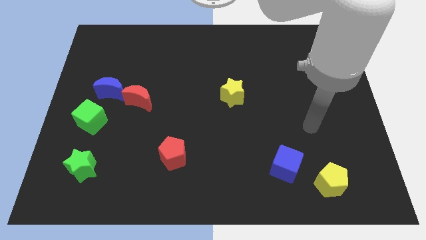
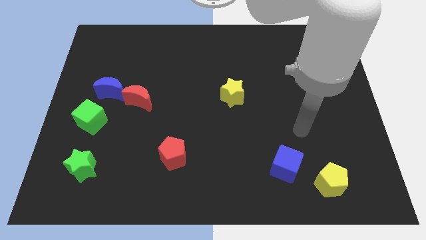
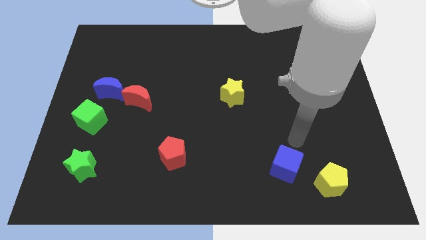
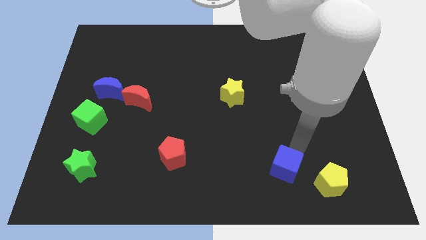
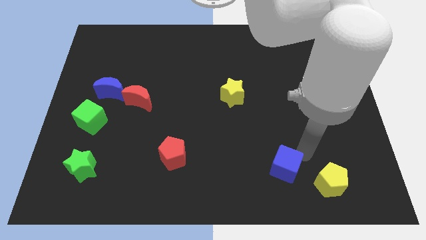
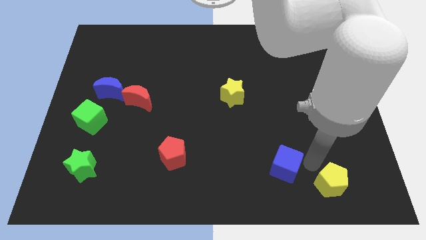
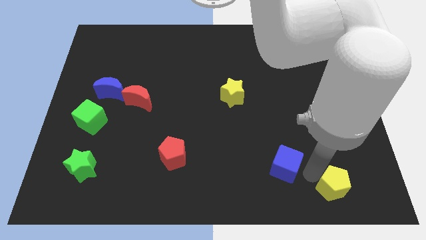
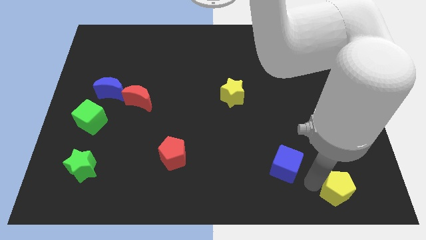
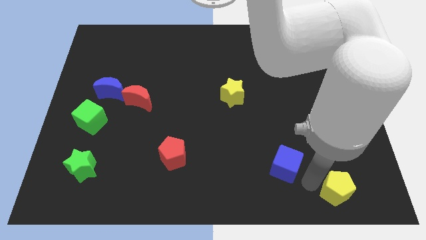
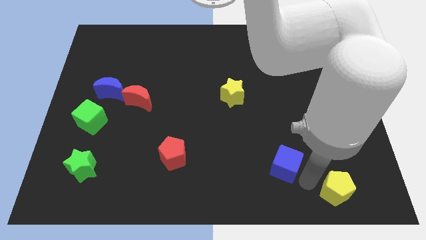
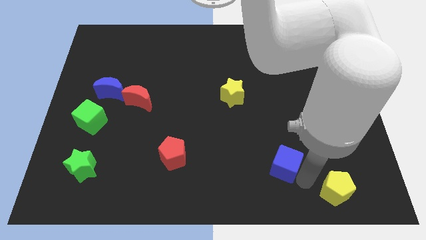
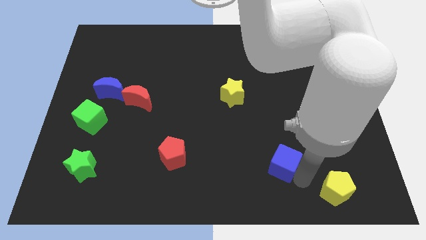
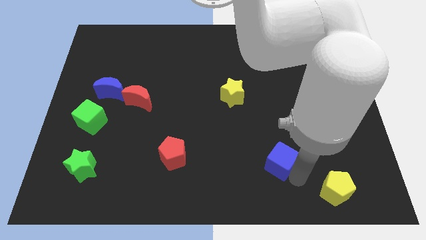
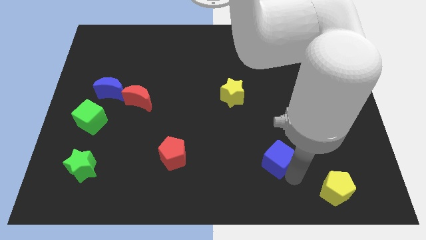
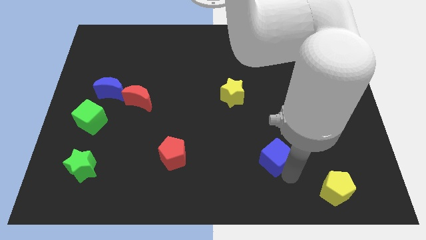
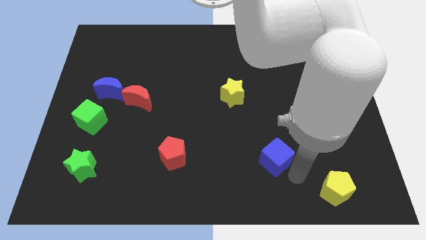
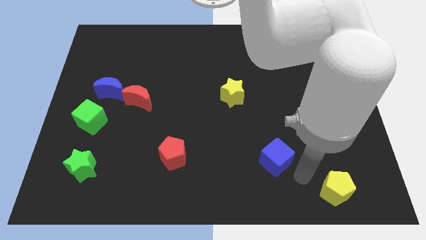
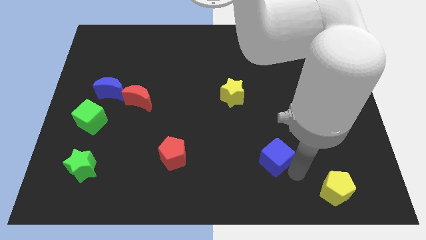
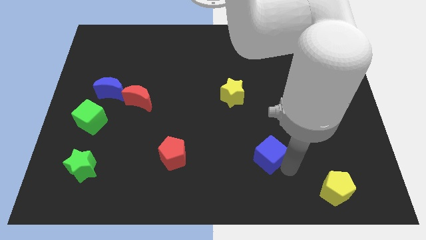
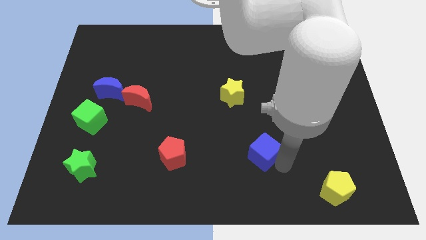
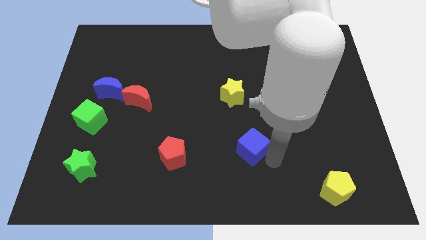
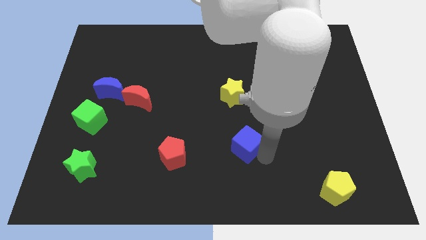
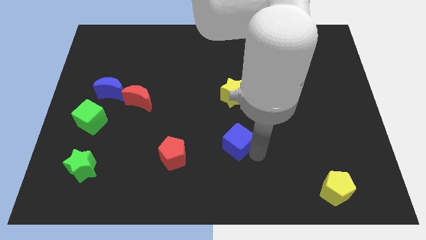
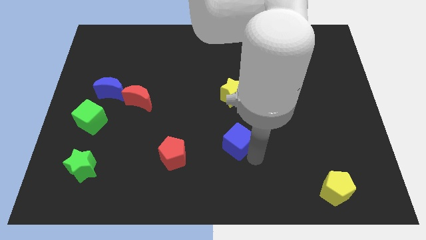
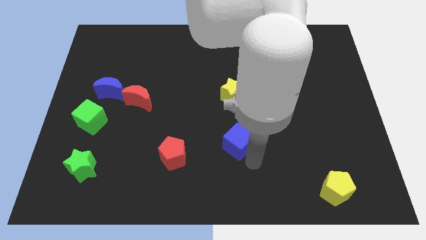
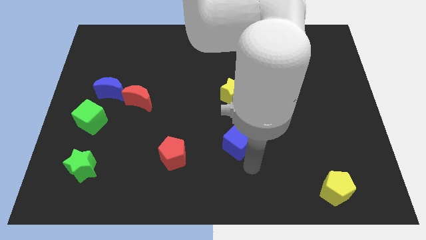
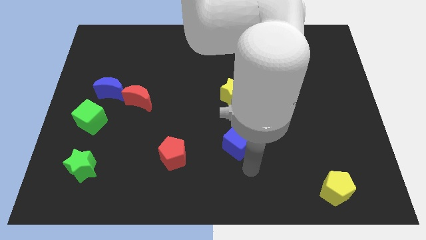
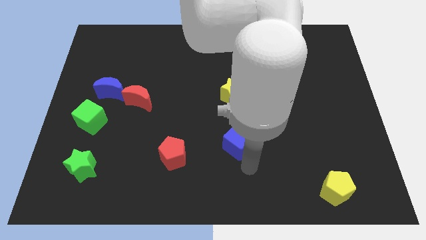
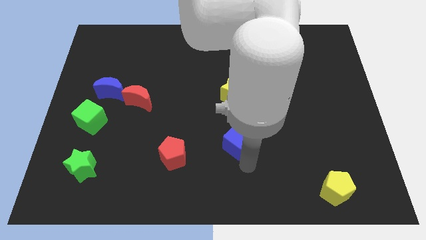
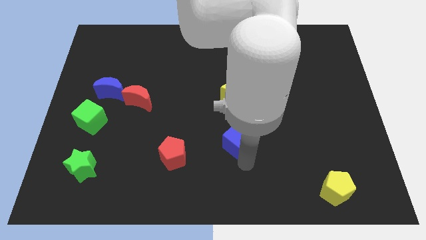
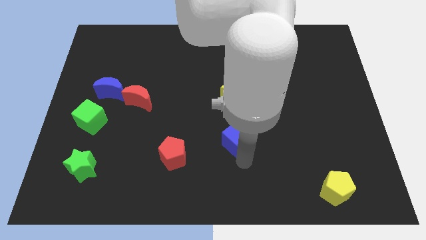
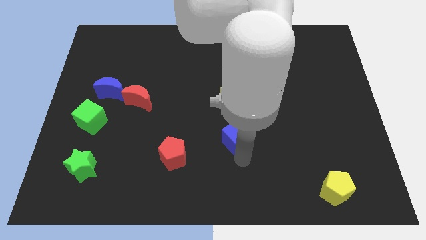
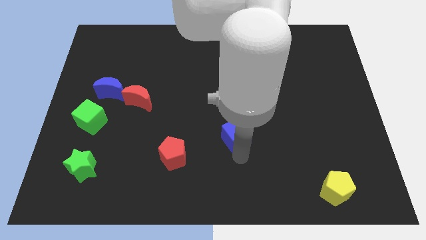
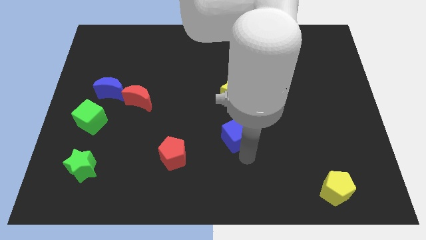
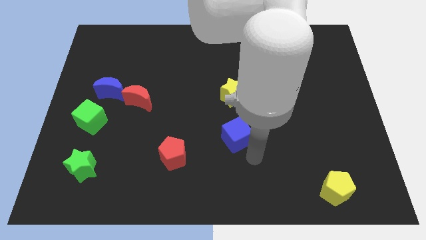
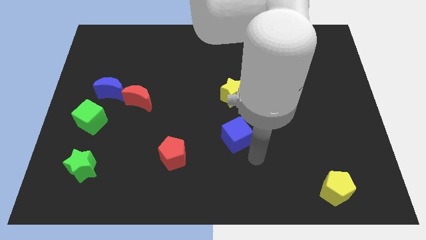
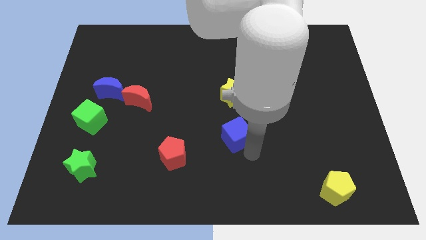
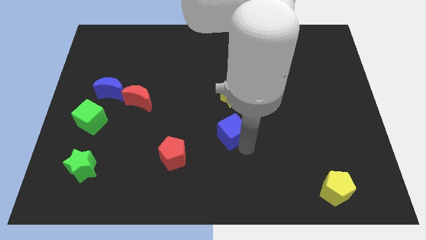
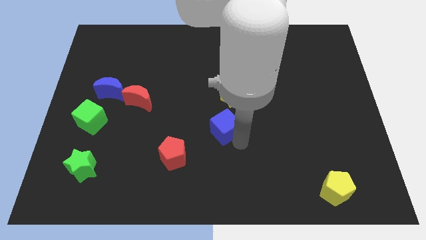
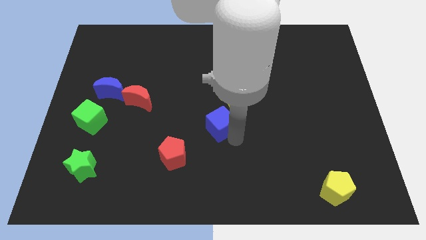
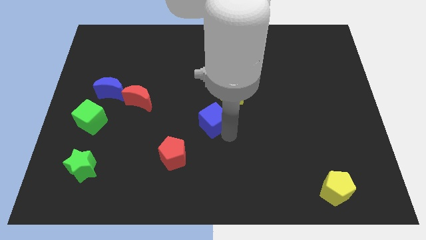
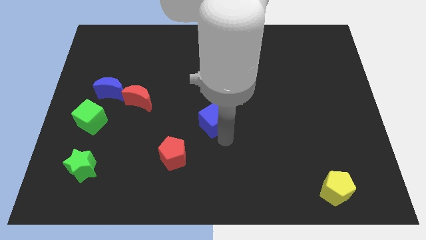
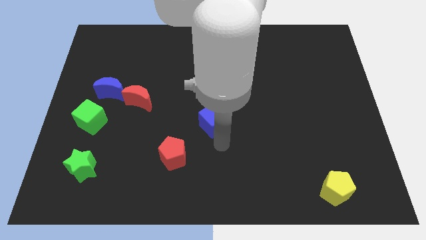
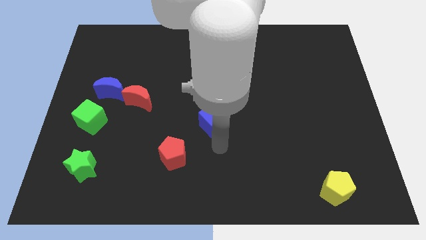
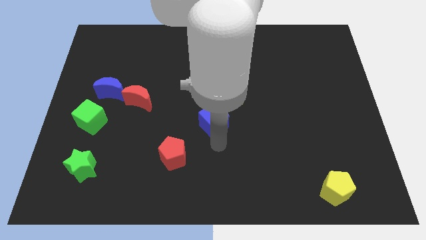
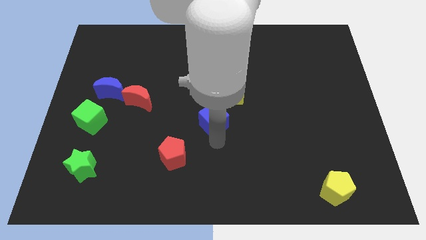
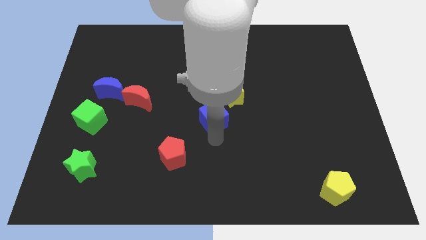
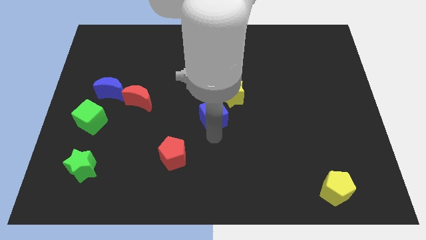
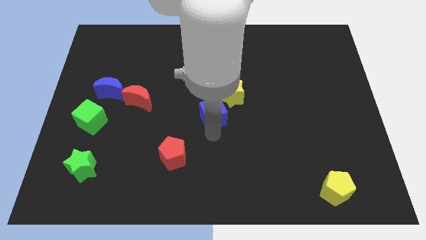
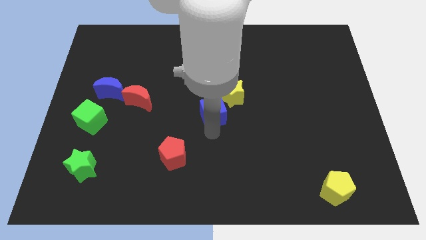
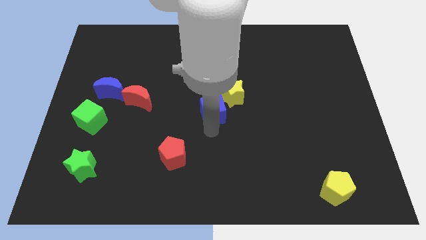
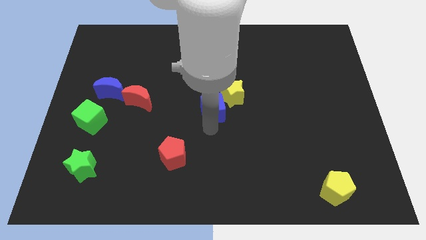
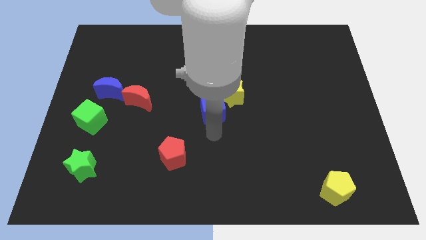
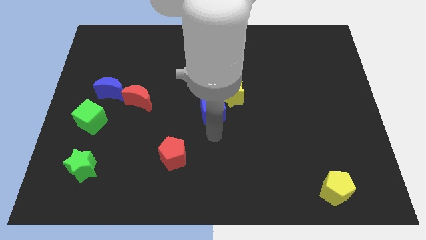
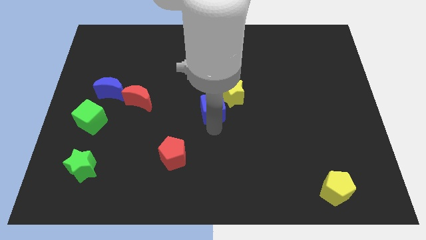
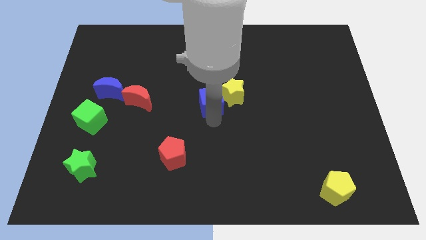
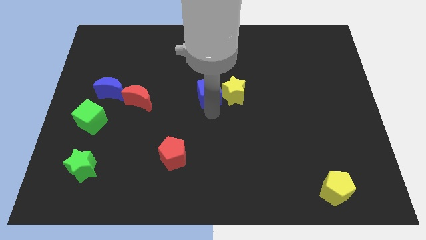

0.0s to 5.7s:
slide the blue cube to the top left of the yellow star

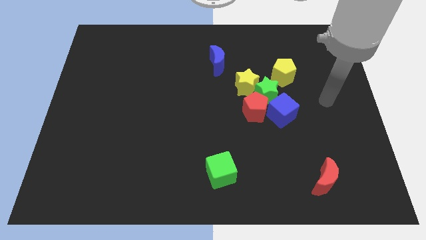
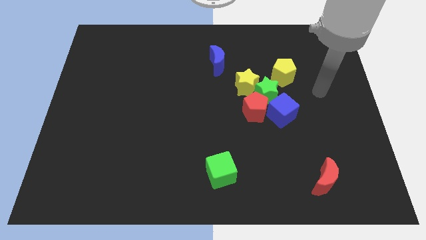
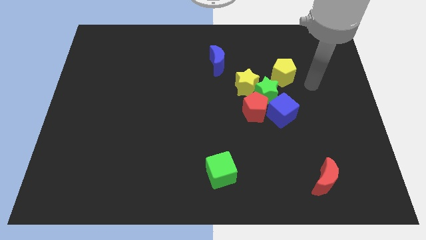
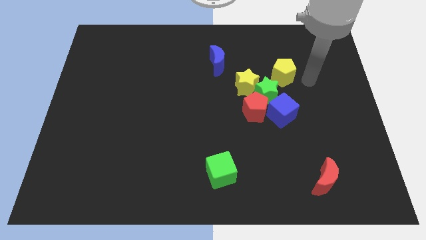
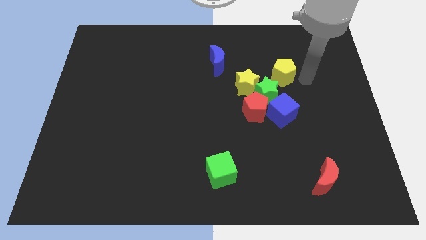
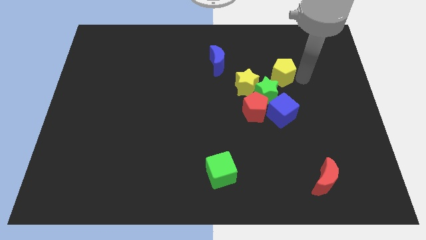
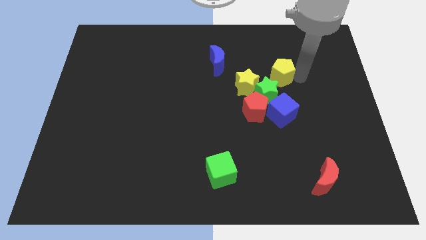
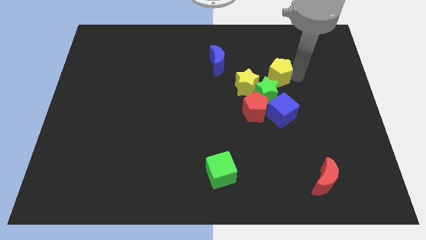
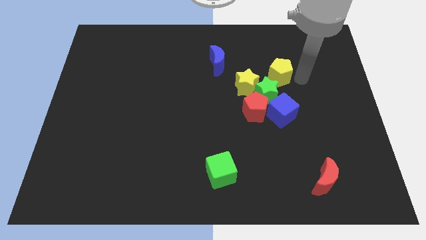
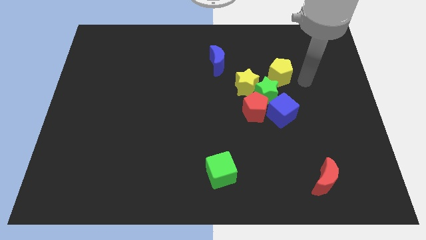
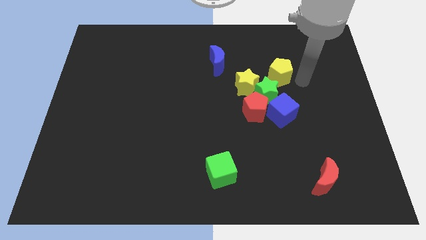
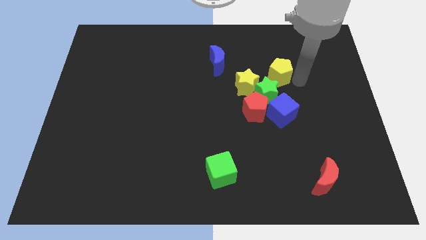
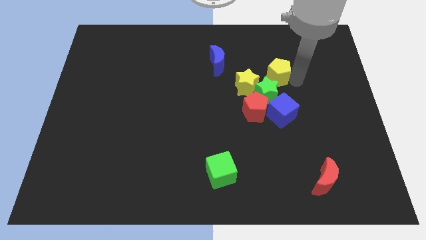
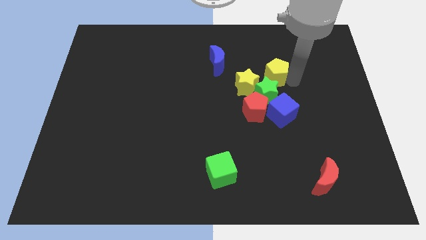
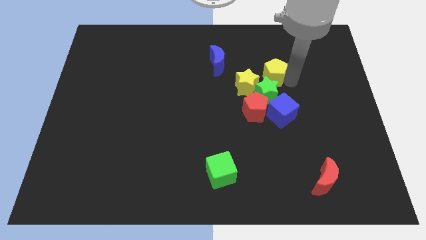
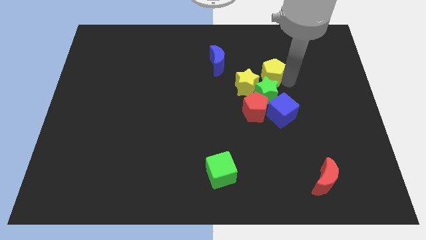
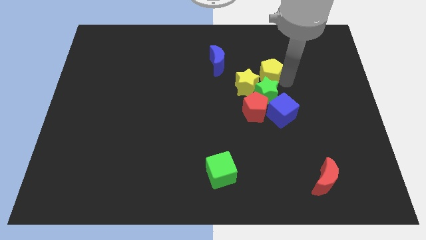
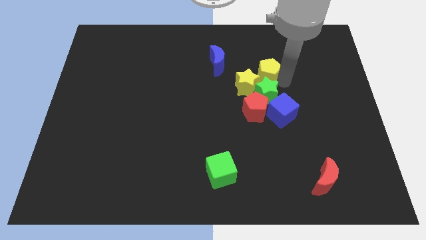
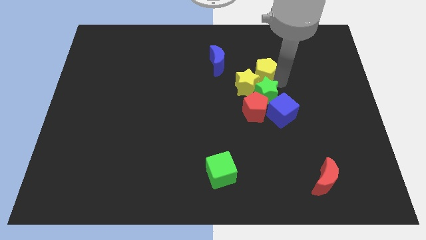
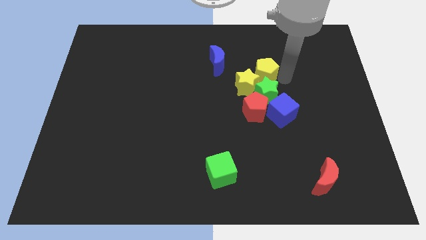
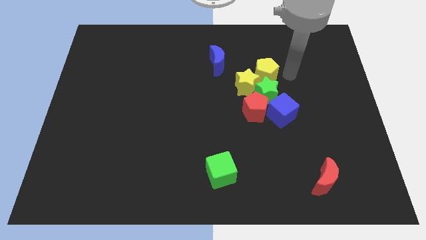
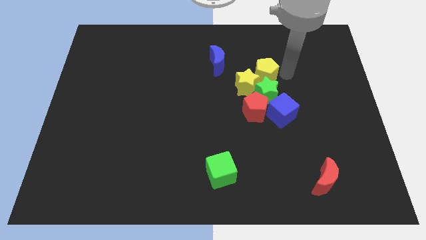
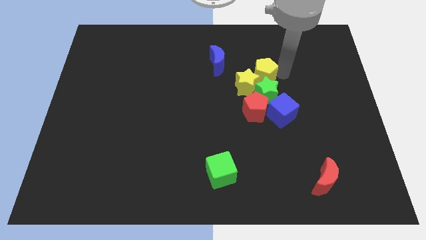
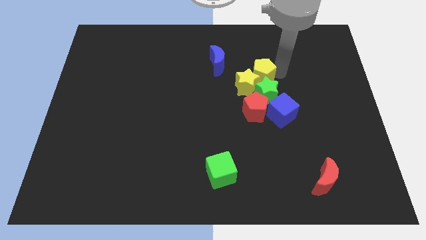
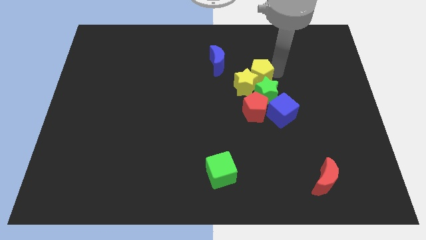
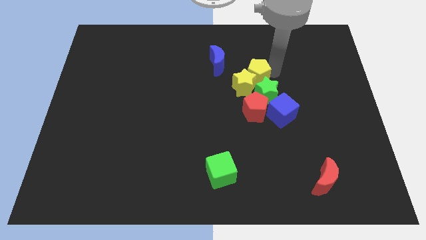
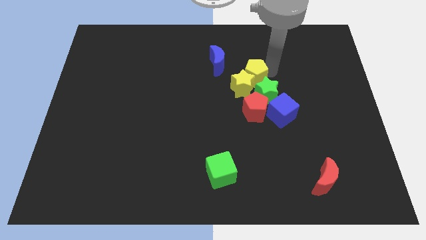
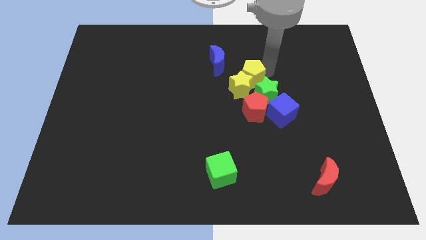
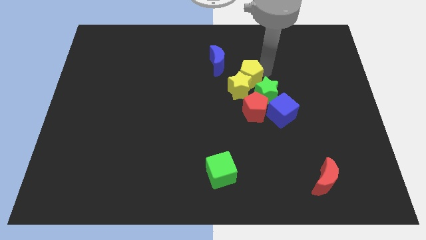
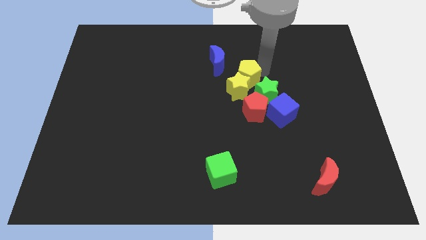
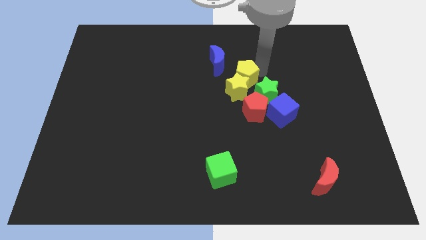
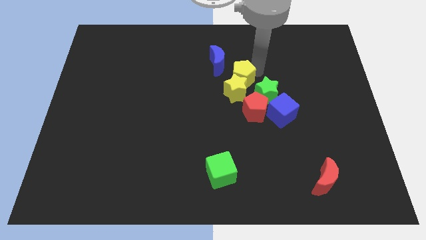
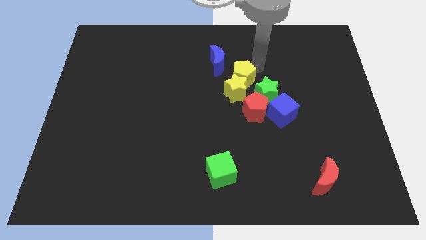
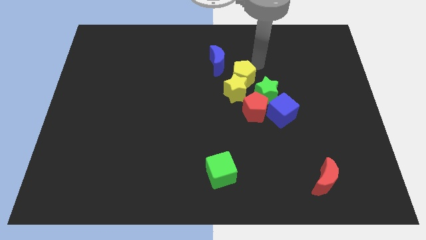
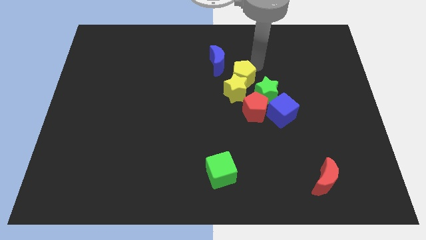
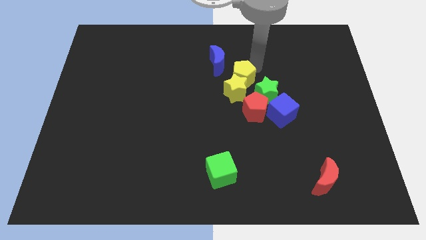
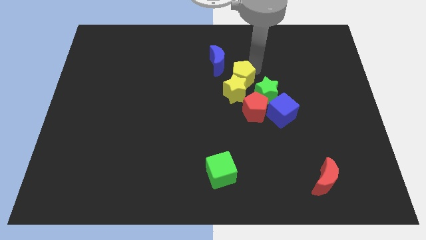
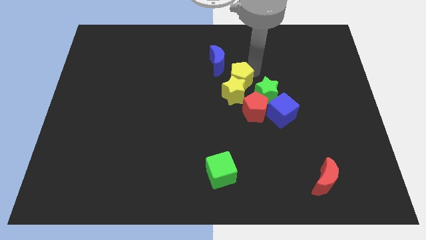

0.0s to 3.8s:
put the yellow pentagon just left of the green star
